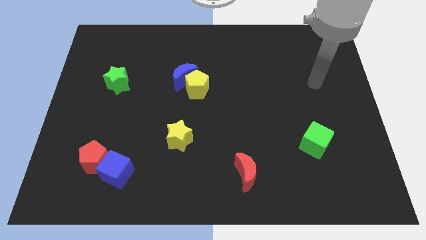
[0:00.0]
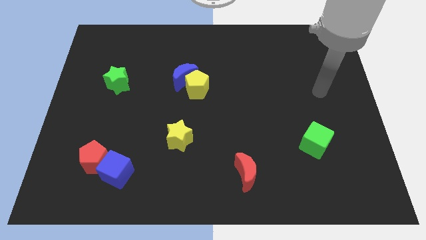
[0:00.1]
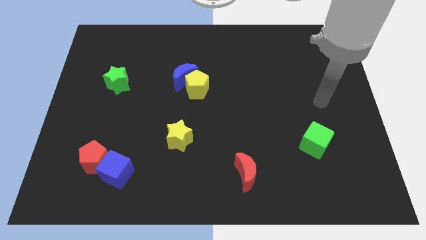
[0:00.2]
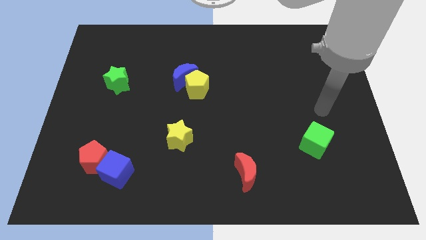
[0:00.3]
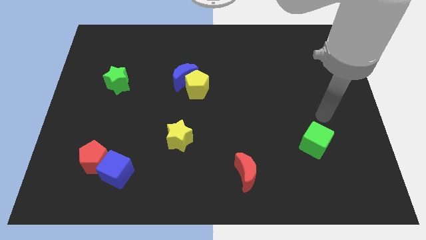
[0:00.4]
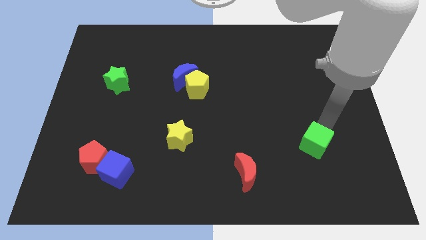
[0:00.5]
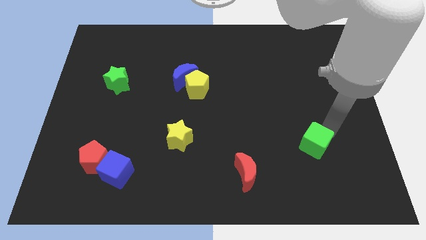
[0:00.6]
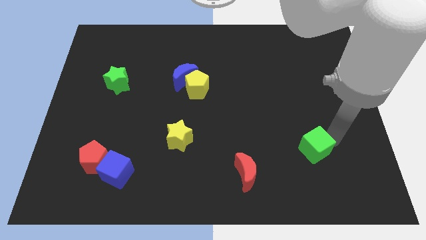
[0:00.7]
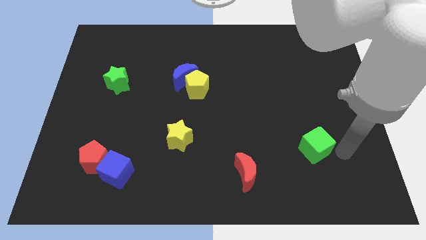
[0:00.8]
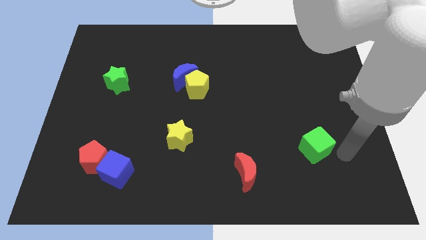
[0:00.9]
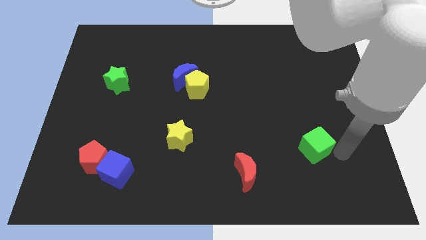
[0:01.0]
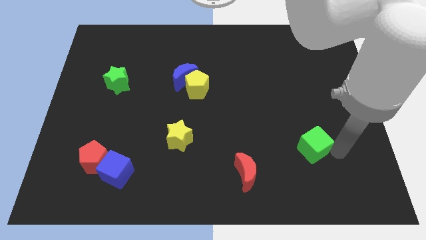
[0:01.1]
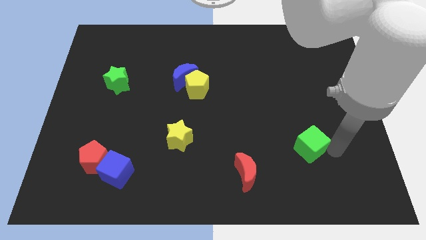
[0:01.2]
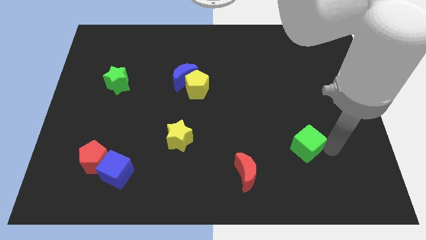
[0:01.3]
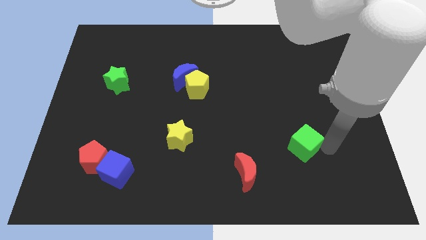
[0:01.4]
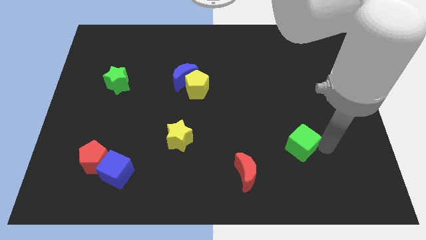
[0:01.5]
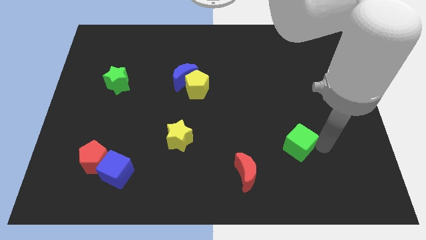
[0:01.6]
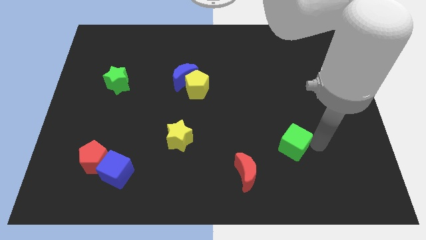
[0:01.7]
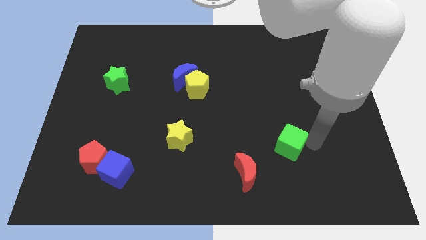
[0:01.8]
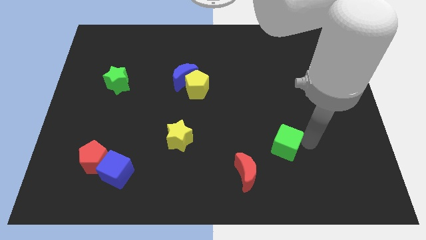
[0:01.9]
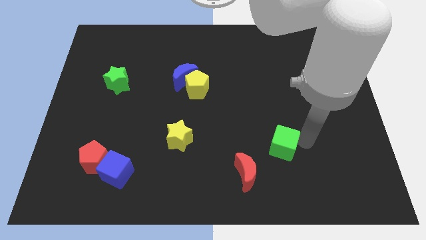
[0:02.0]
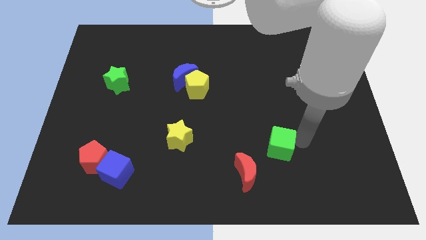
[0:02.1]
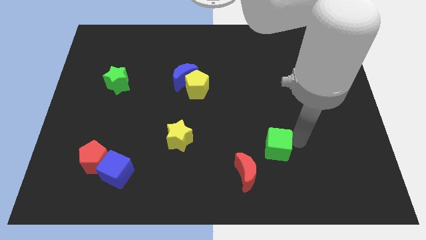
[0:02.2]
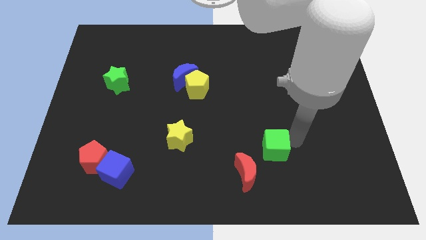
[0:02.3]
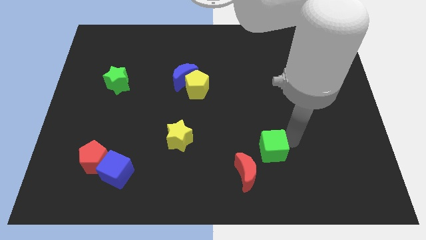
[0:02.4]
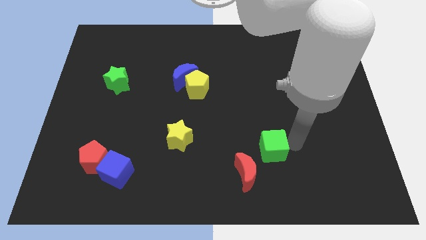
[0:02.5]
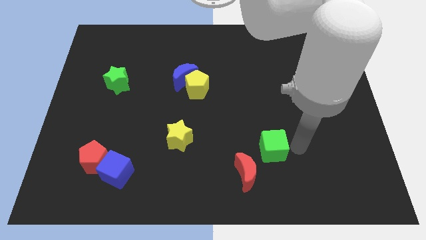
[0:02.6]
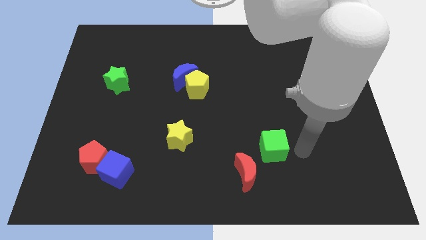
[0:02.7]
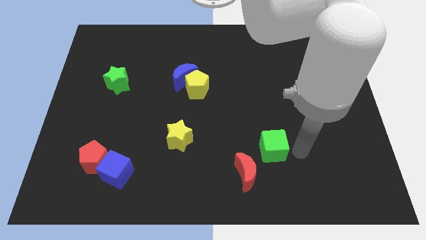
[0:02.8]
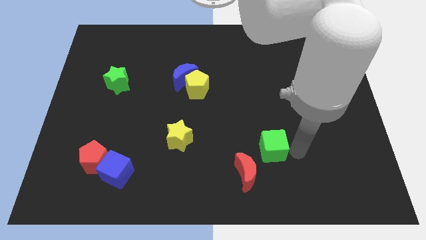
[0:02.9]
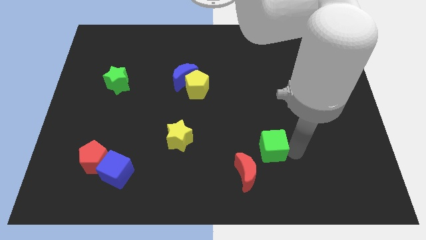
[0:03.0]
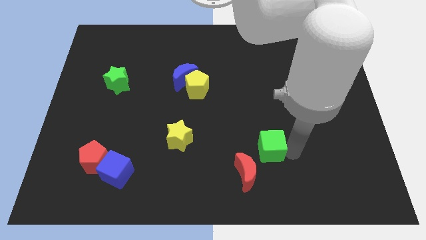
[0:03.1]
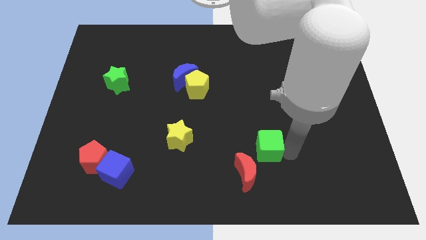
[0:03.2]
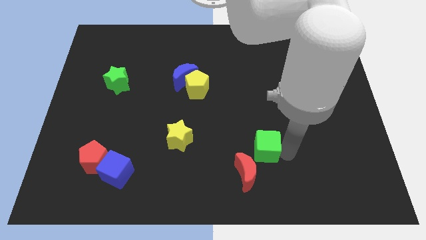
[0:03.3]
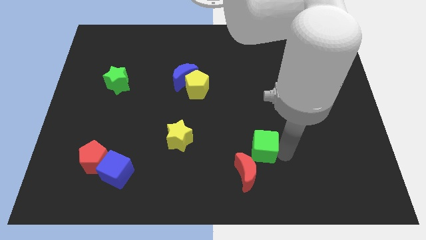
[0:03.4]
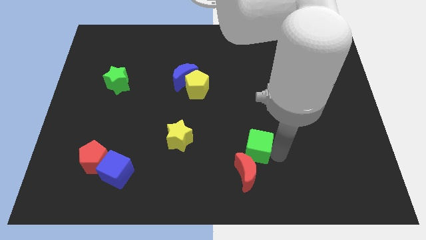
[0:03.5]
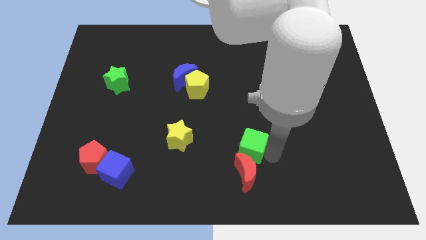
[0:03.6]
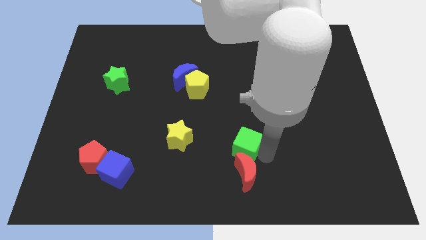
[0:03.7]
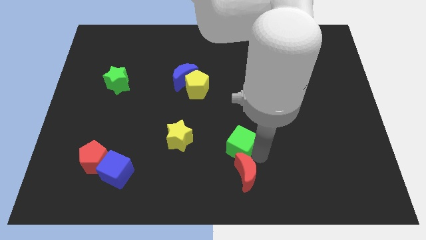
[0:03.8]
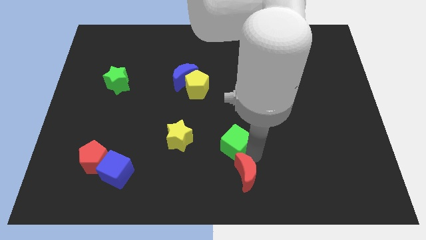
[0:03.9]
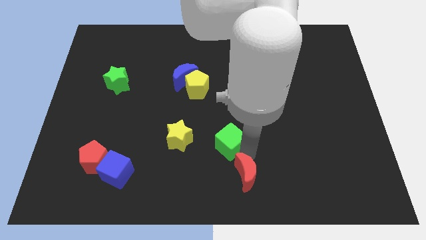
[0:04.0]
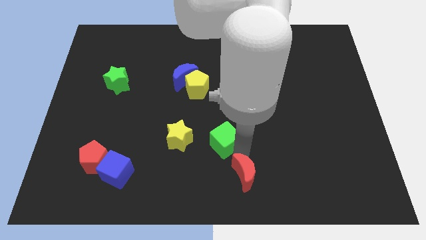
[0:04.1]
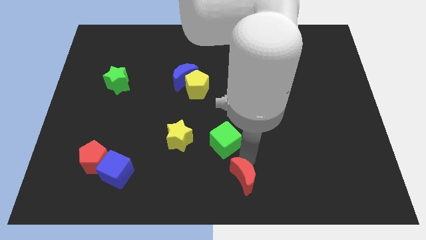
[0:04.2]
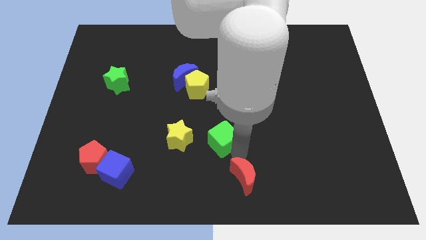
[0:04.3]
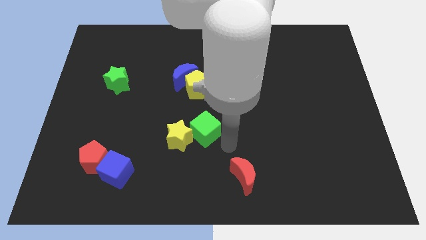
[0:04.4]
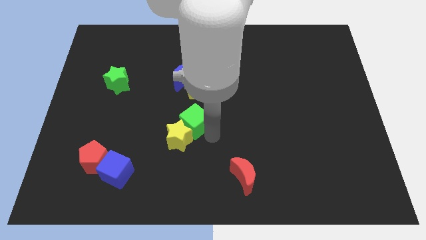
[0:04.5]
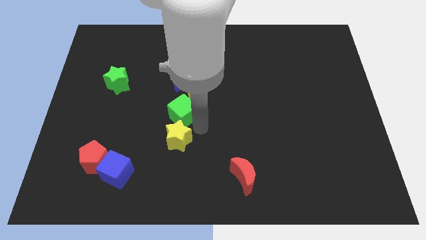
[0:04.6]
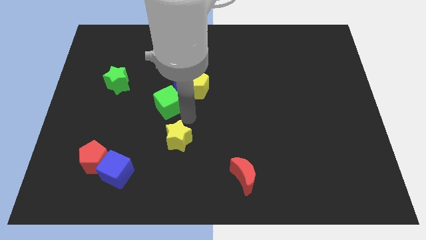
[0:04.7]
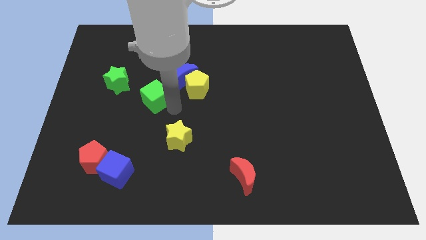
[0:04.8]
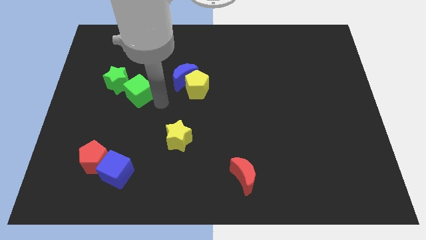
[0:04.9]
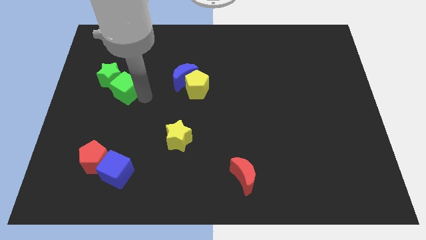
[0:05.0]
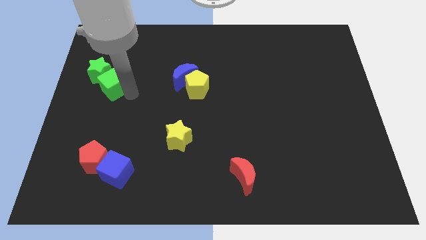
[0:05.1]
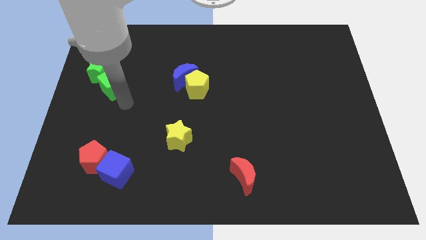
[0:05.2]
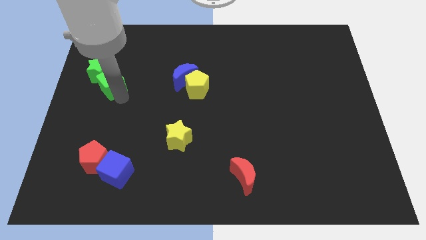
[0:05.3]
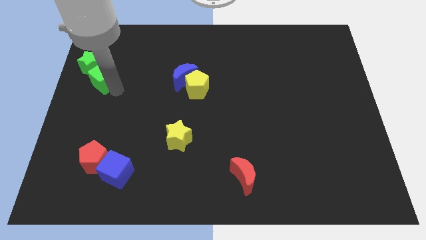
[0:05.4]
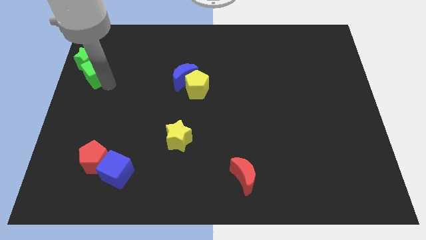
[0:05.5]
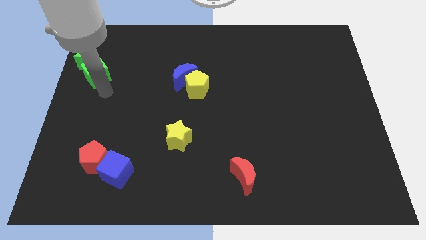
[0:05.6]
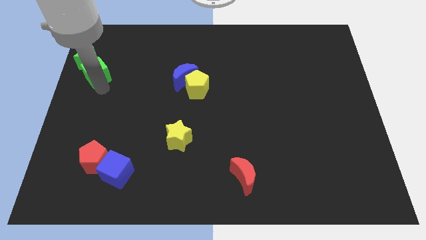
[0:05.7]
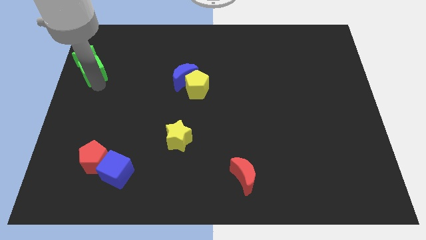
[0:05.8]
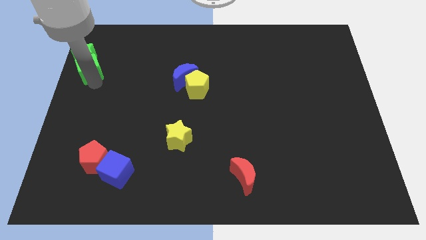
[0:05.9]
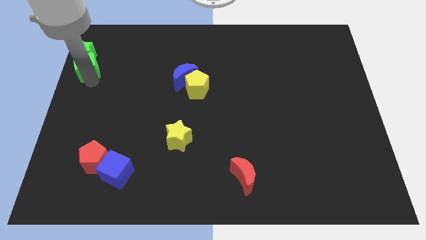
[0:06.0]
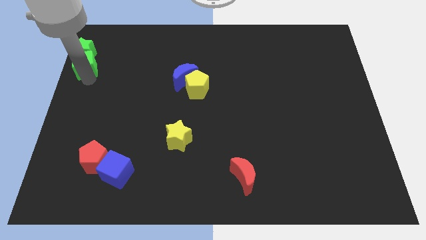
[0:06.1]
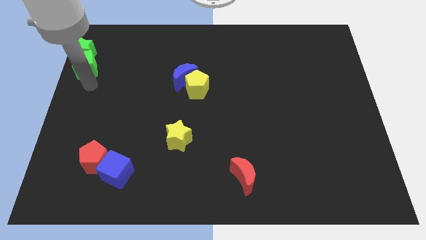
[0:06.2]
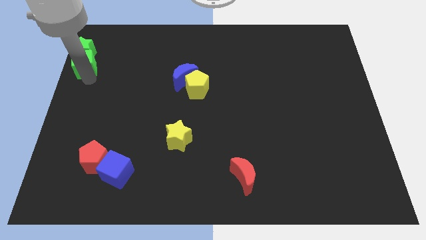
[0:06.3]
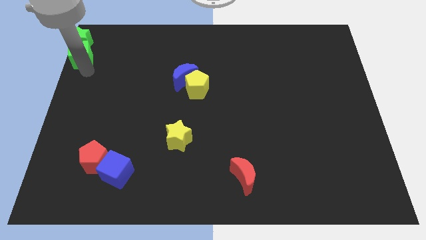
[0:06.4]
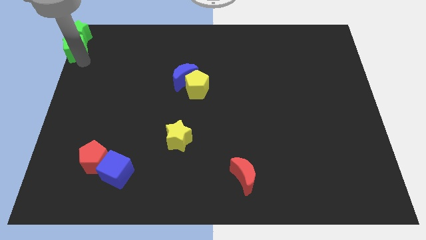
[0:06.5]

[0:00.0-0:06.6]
move the green cube to the top left corner

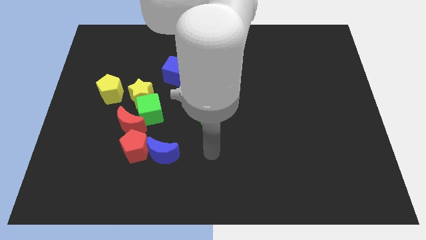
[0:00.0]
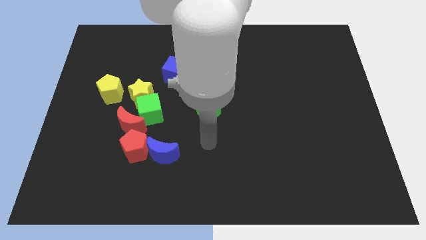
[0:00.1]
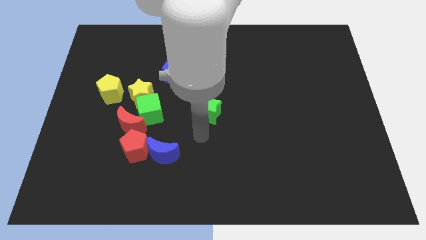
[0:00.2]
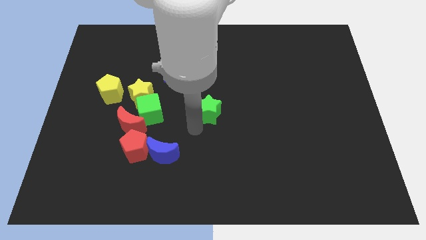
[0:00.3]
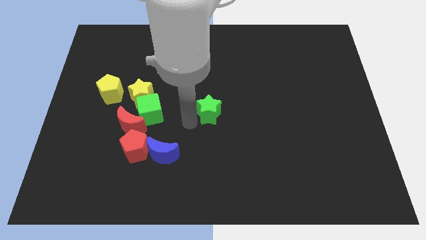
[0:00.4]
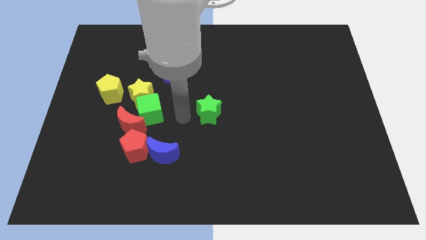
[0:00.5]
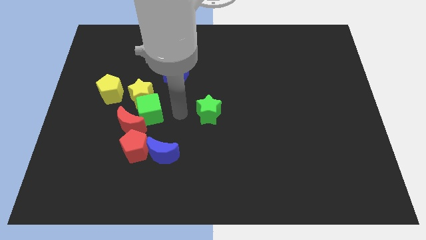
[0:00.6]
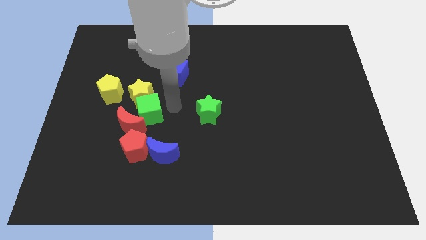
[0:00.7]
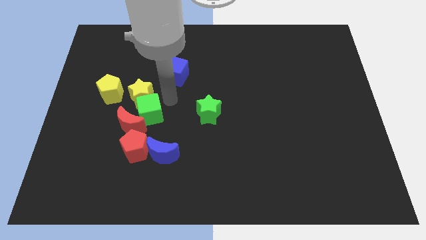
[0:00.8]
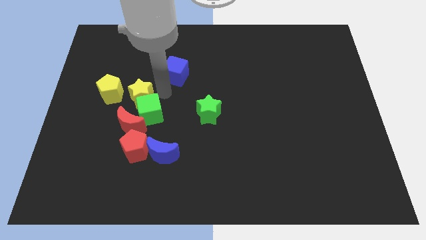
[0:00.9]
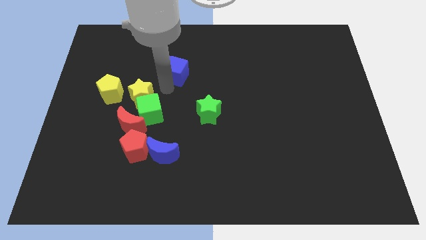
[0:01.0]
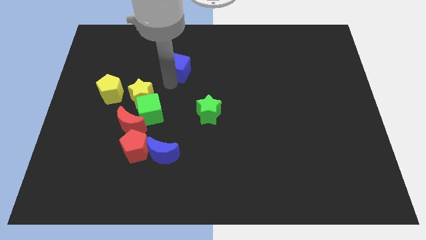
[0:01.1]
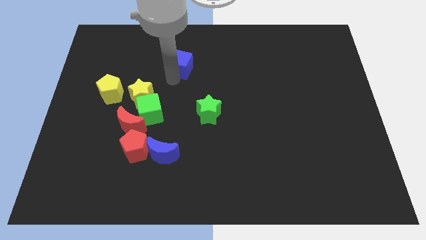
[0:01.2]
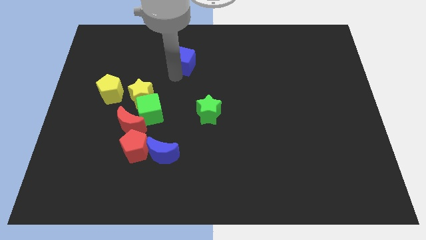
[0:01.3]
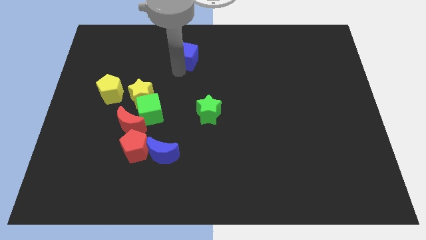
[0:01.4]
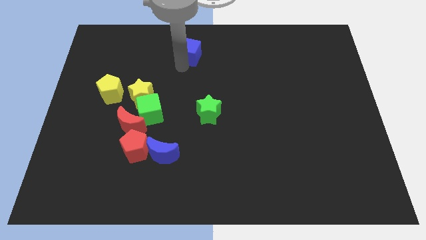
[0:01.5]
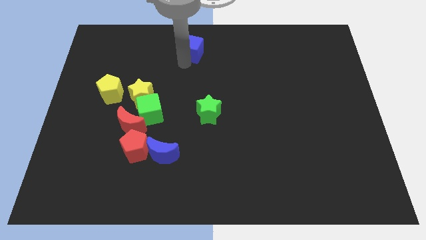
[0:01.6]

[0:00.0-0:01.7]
push the blue cube to the top
